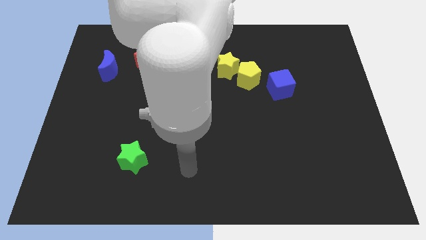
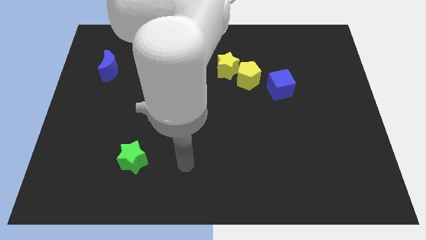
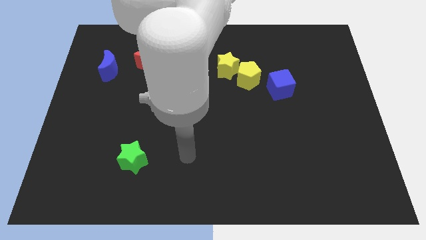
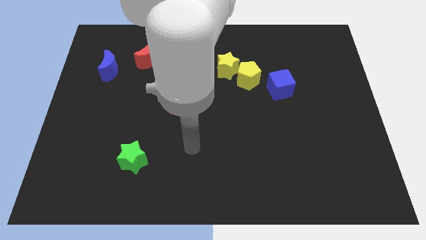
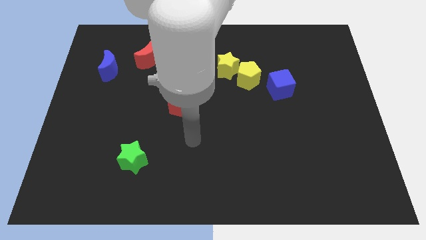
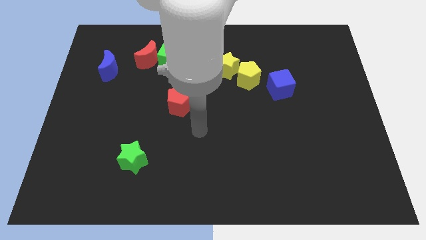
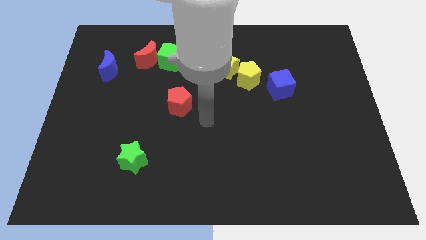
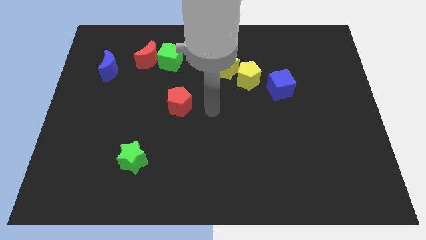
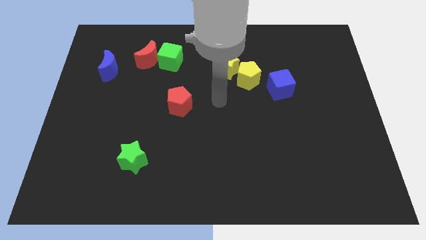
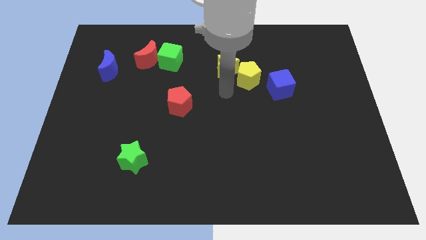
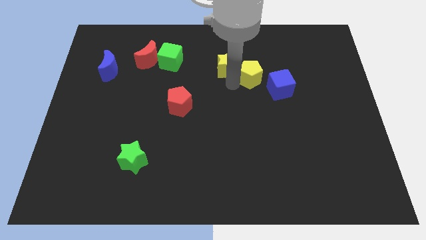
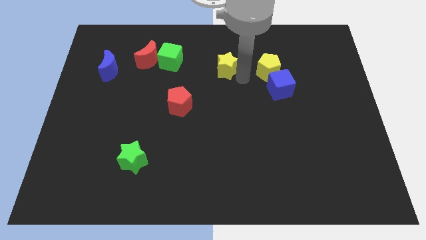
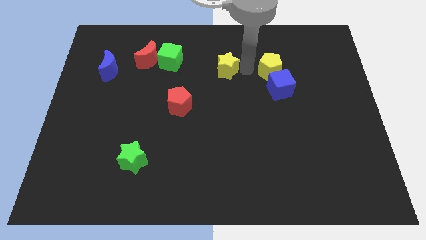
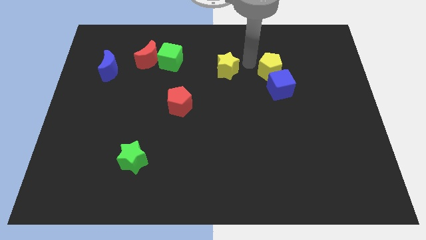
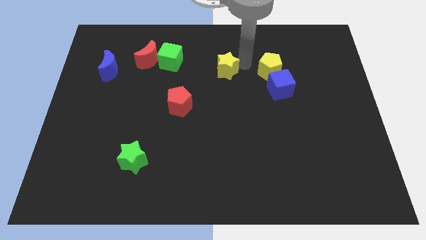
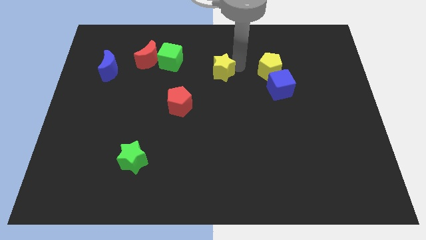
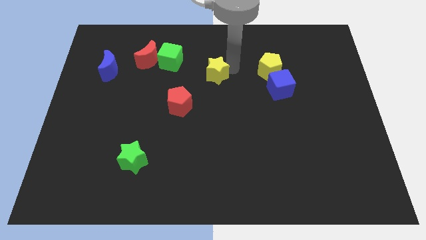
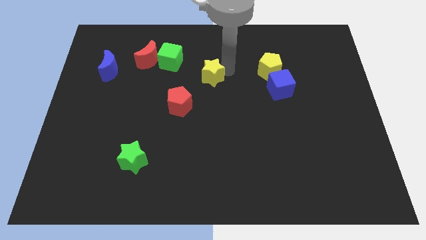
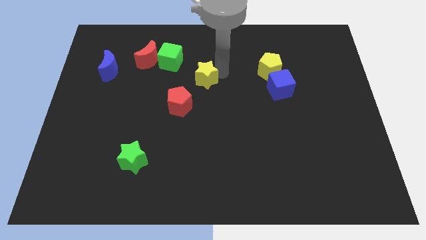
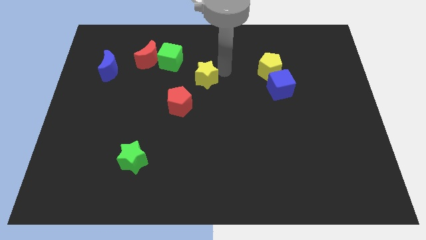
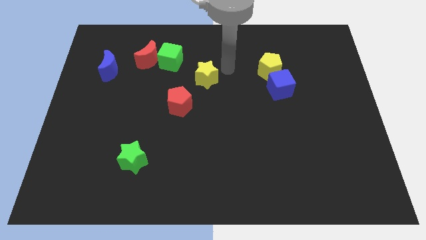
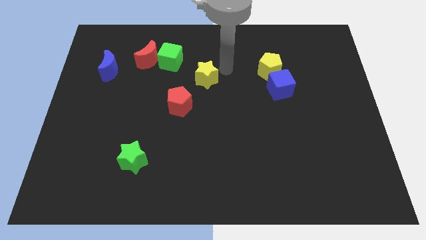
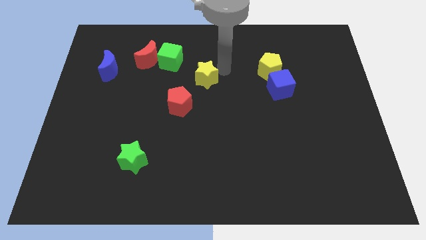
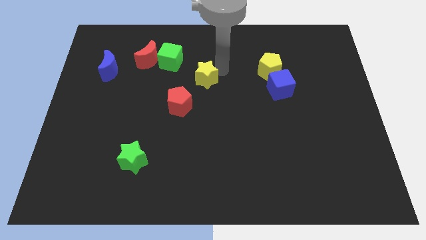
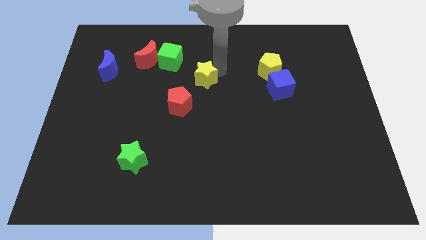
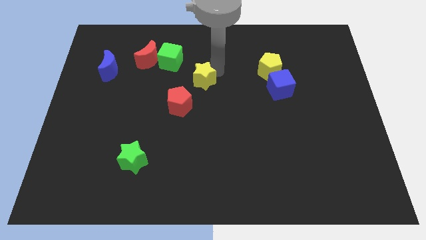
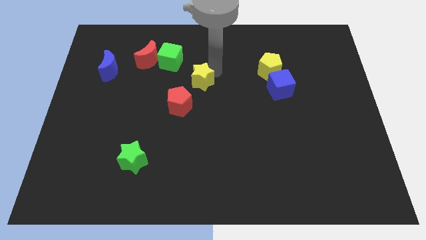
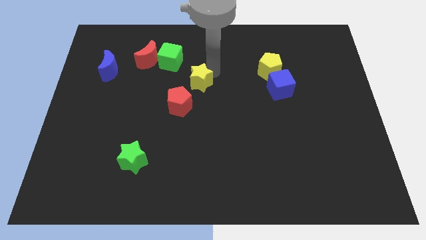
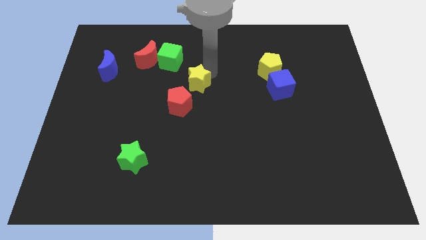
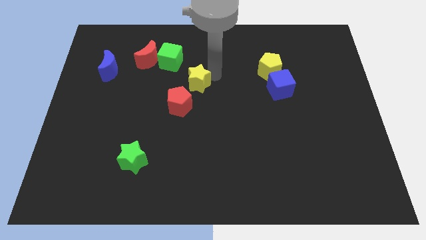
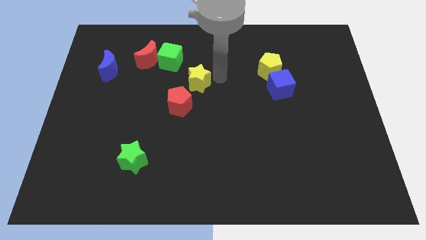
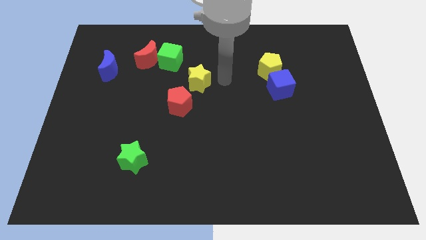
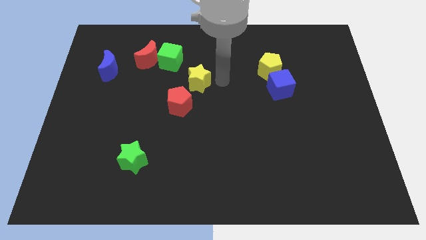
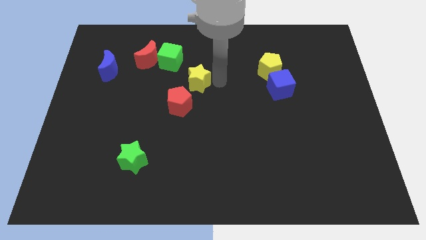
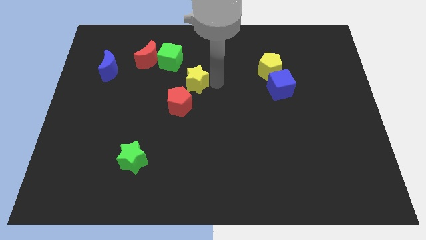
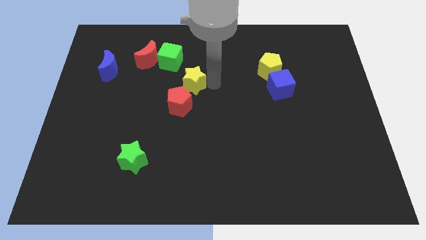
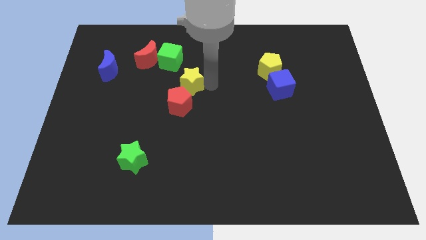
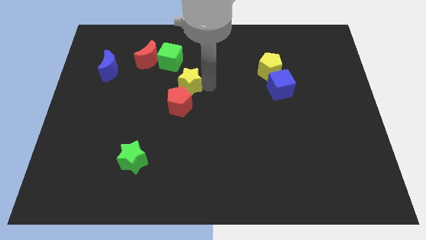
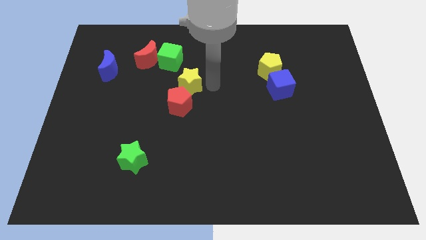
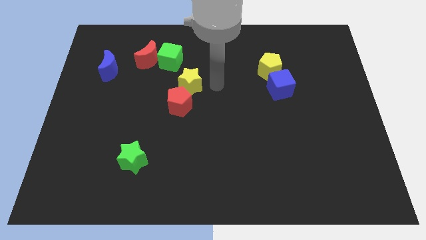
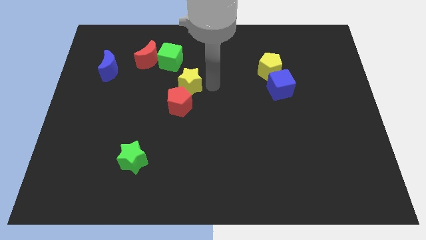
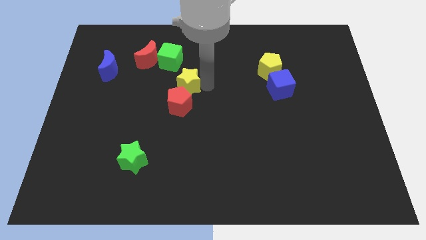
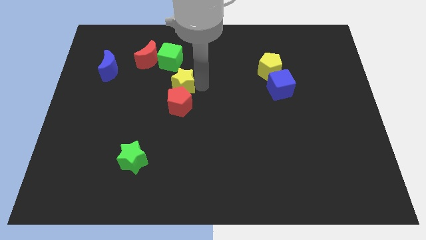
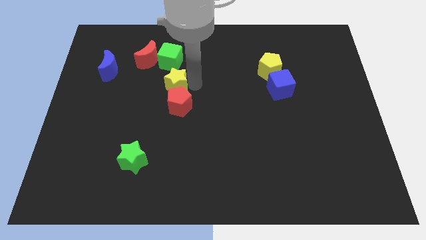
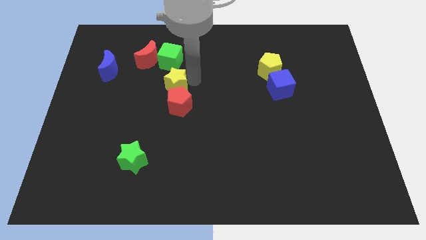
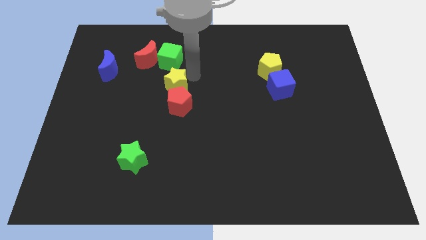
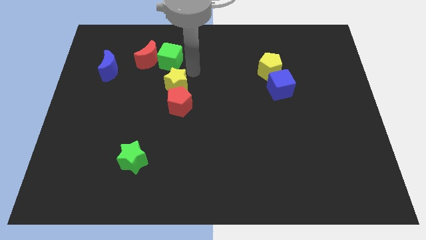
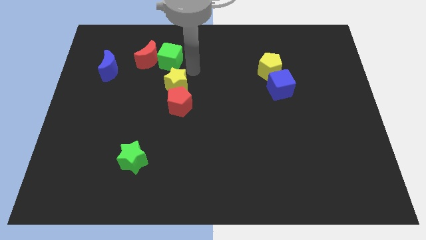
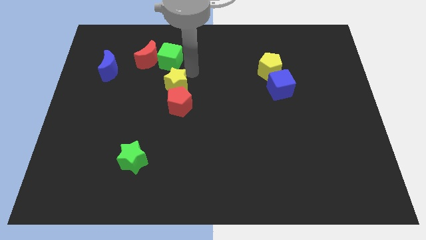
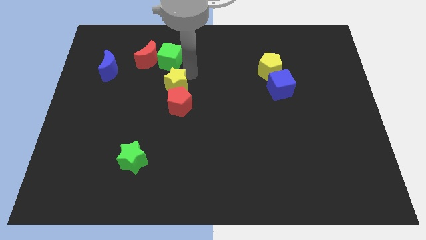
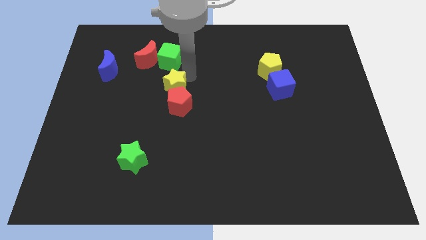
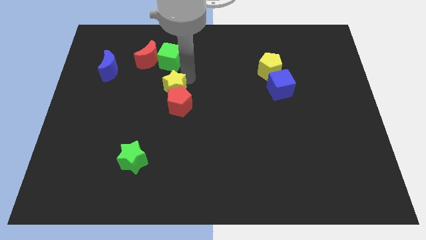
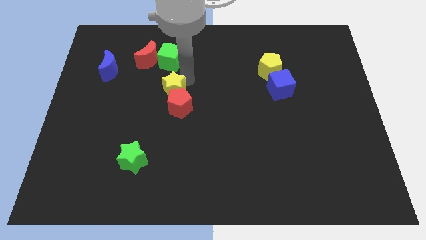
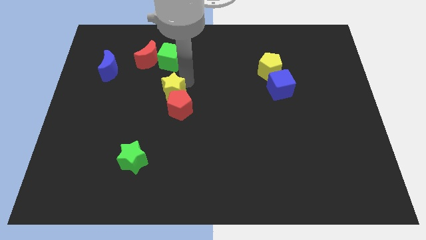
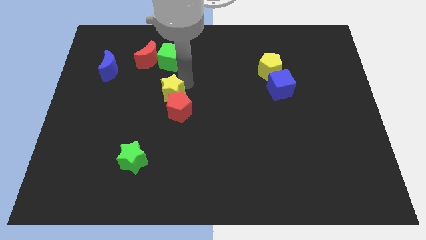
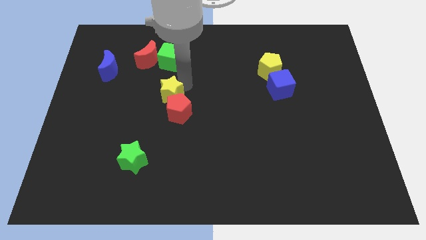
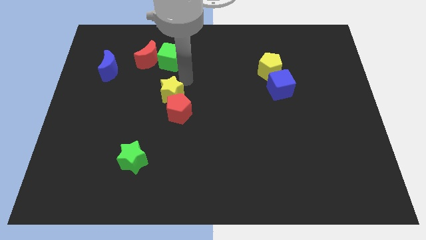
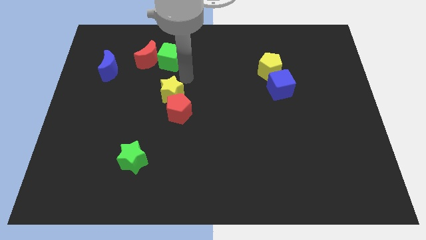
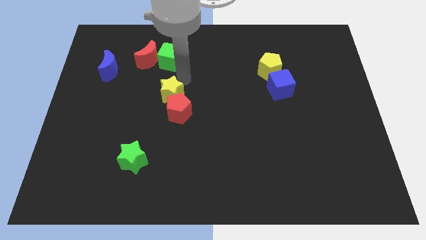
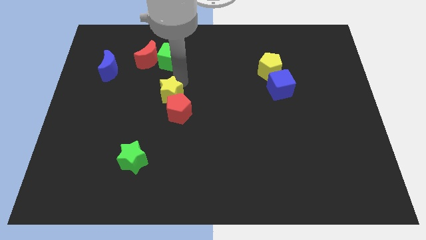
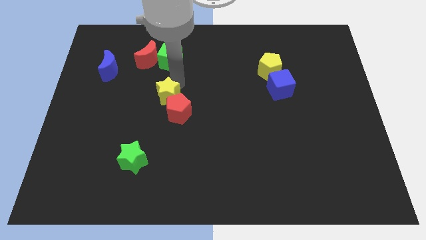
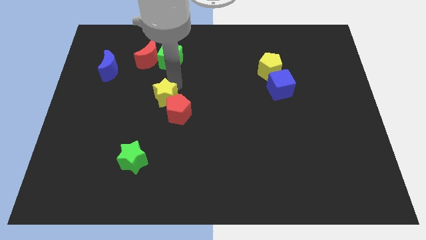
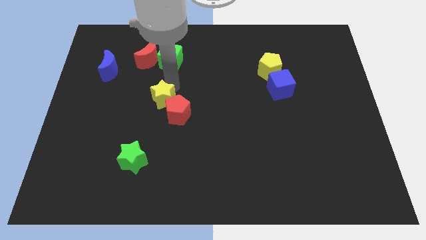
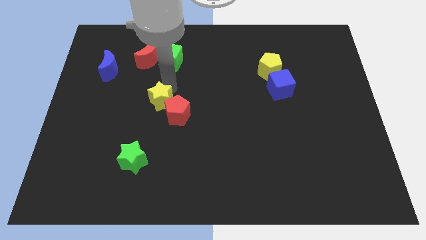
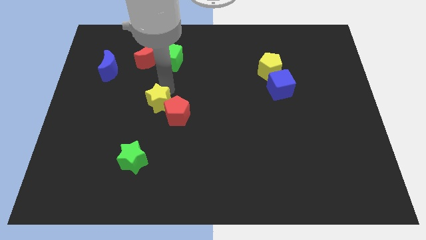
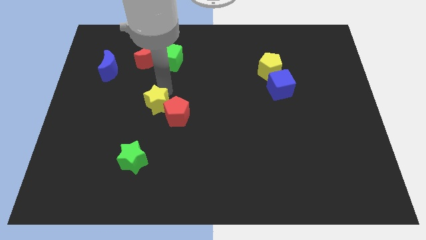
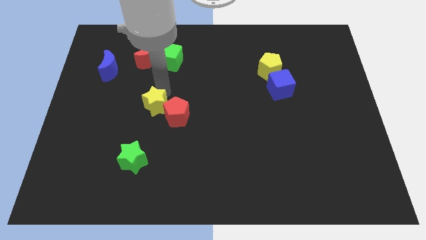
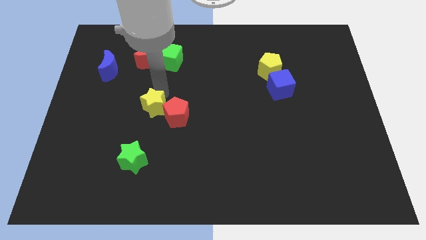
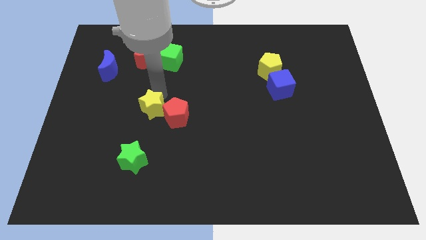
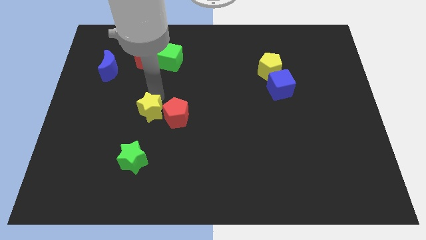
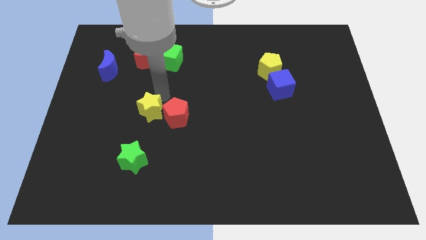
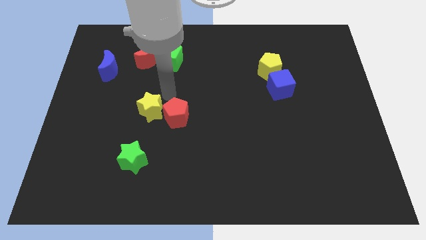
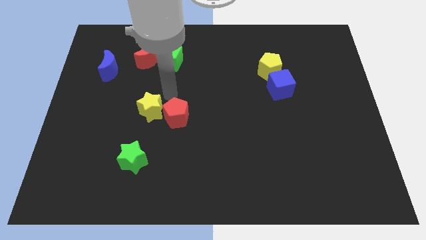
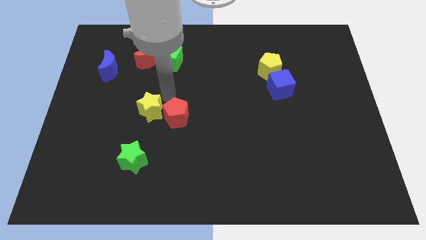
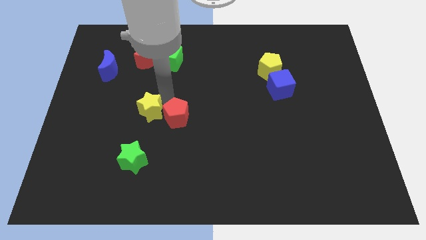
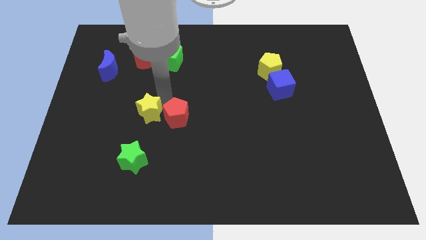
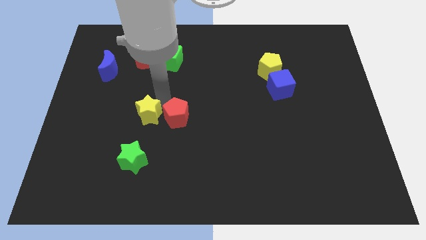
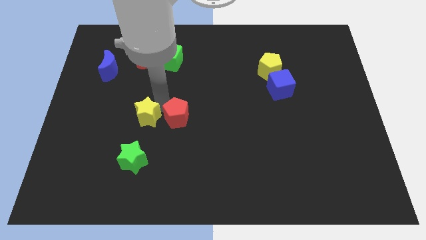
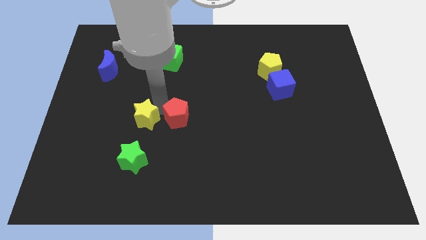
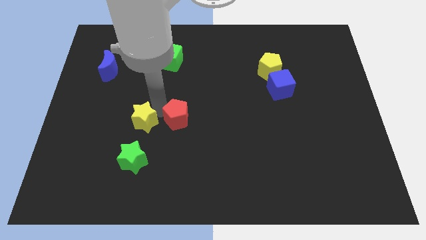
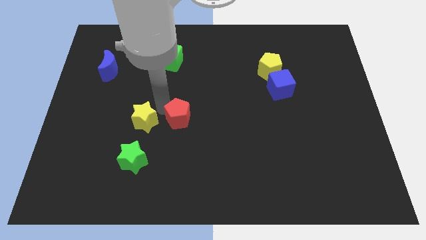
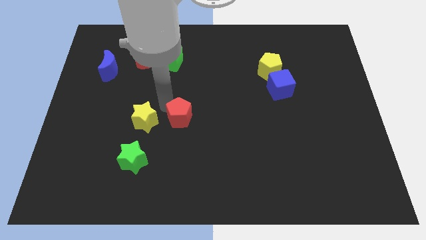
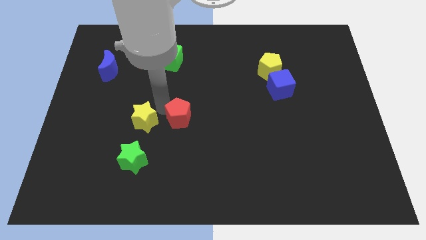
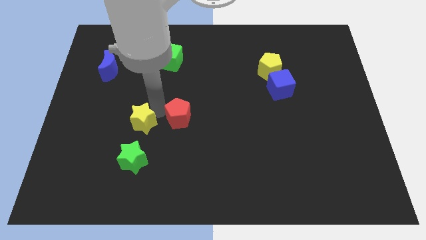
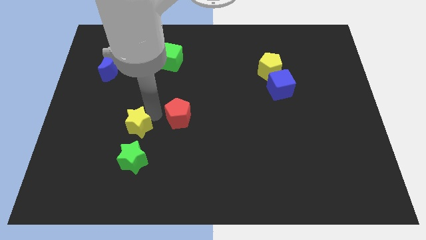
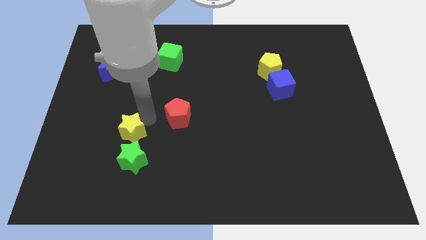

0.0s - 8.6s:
push the yellow star to the top left side of the green star
